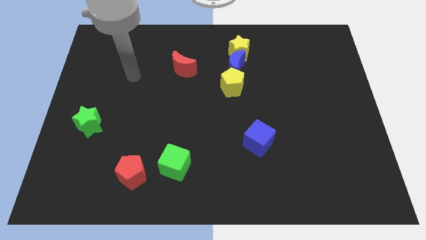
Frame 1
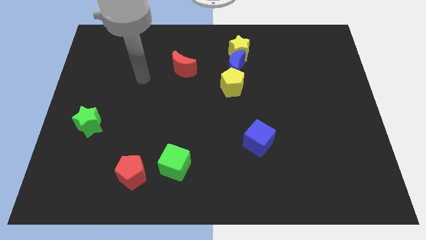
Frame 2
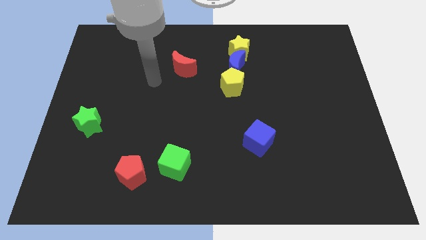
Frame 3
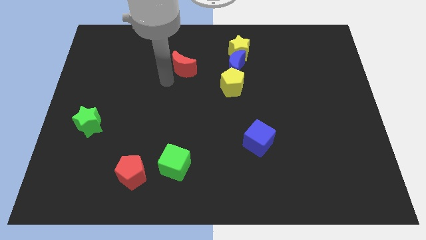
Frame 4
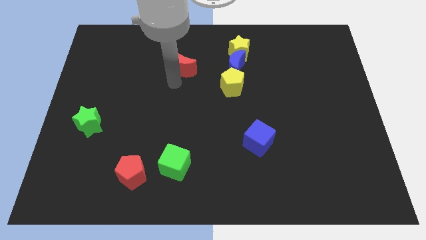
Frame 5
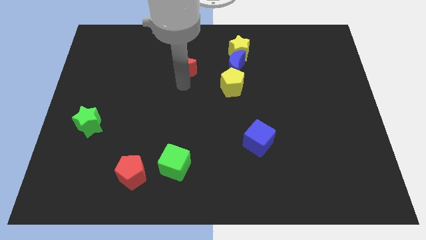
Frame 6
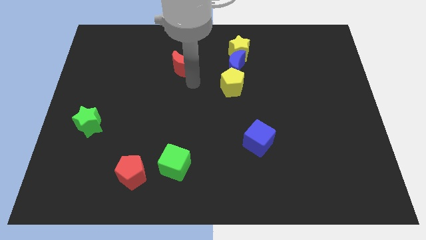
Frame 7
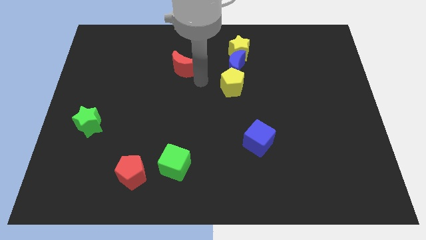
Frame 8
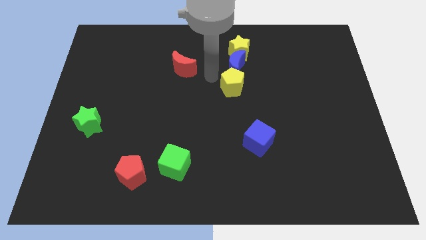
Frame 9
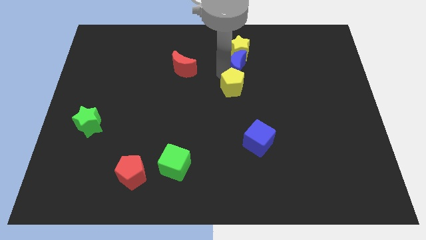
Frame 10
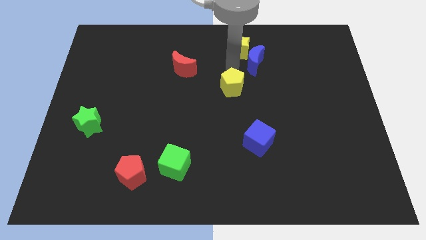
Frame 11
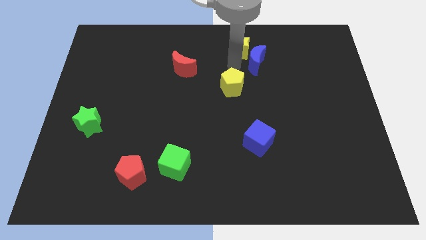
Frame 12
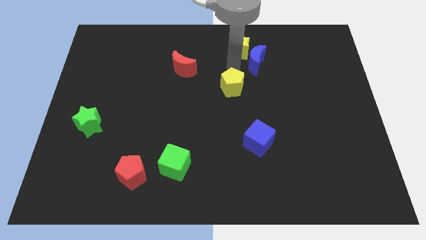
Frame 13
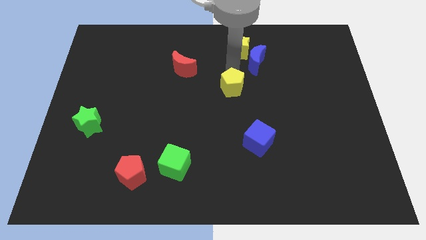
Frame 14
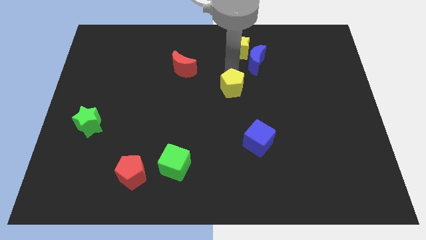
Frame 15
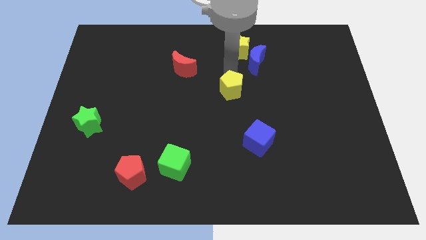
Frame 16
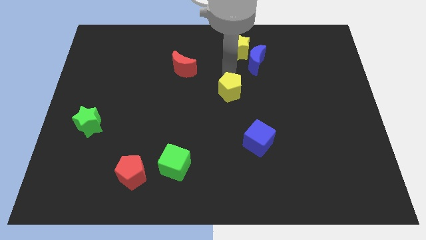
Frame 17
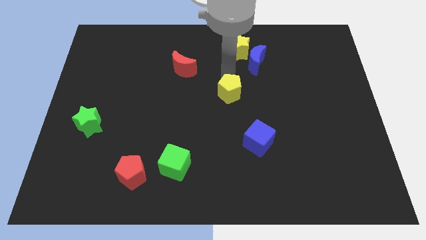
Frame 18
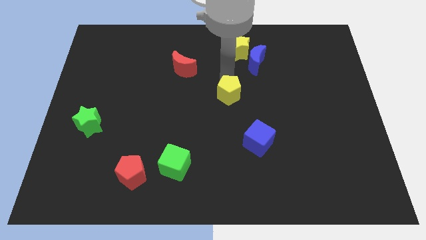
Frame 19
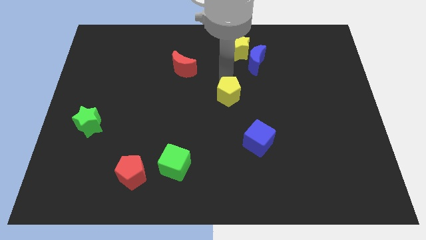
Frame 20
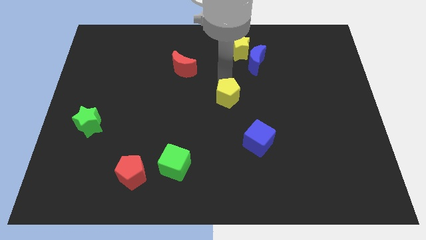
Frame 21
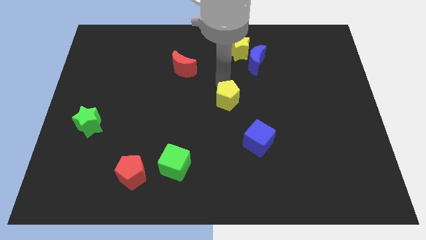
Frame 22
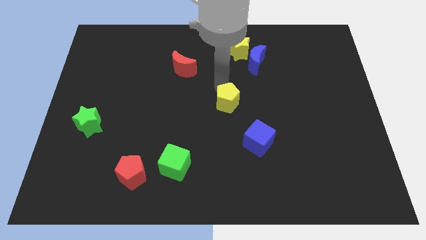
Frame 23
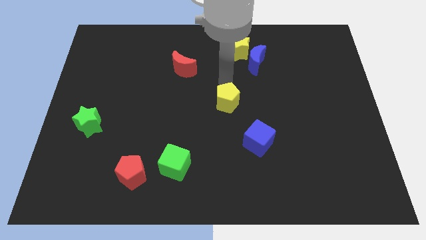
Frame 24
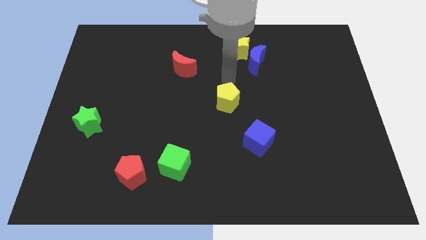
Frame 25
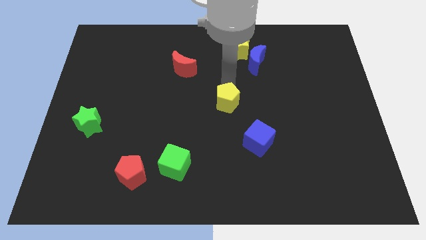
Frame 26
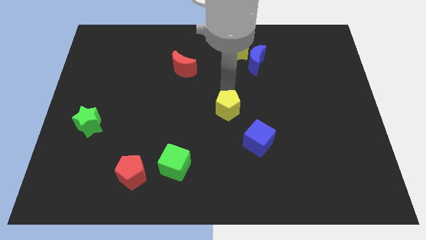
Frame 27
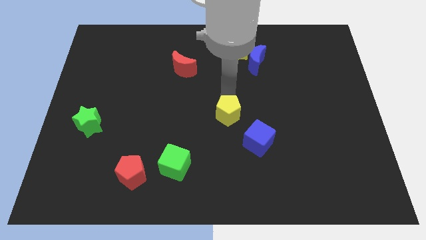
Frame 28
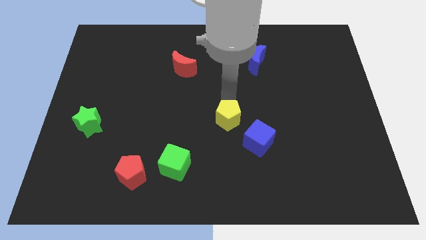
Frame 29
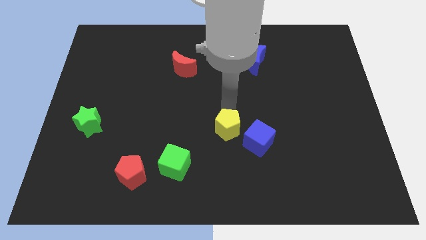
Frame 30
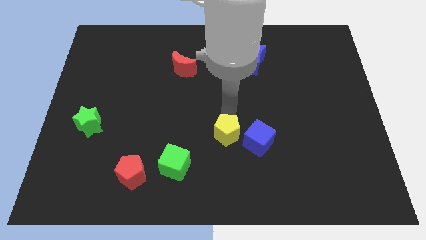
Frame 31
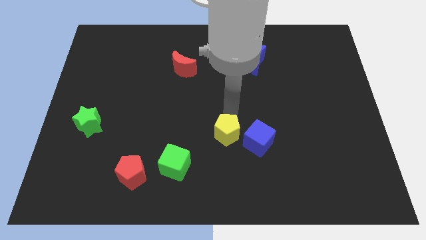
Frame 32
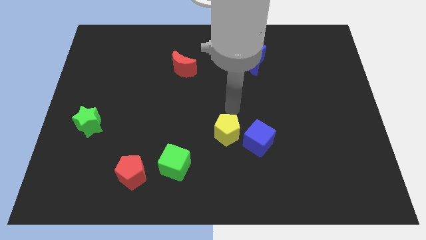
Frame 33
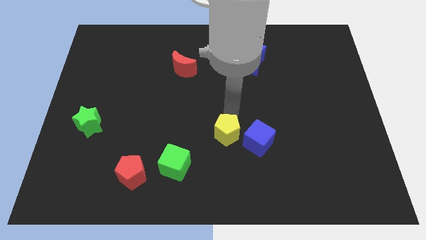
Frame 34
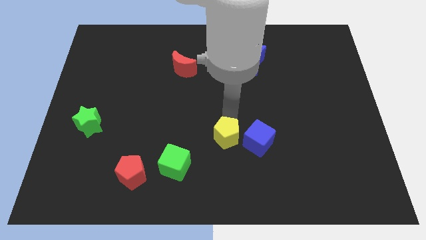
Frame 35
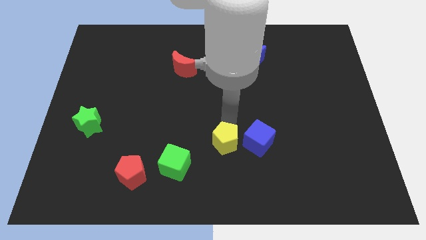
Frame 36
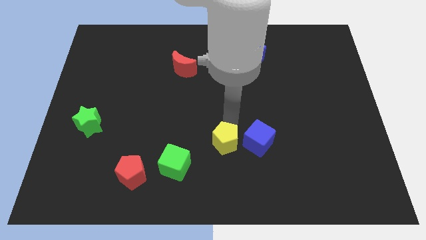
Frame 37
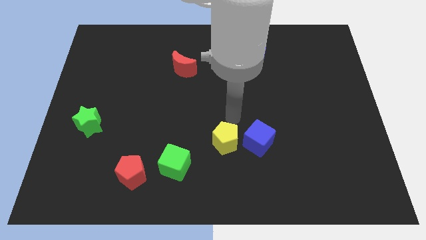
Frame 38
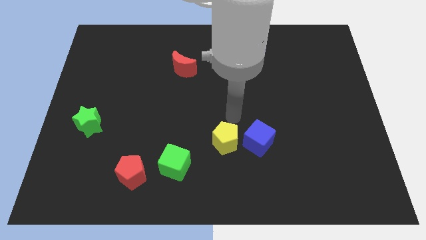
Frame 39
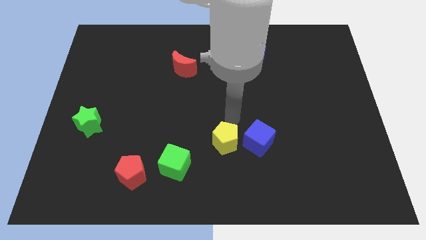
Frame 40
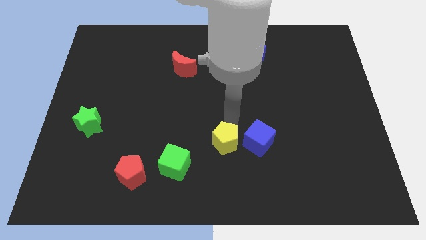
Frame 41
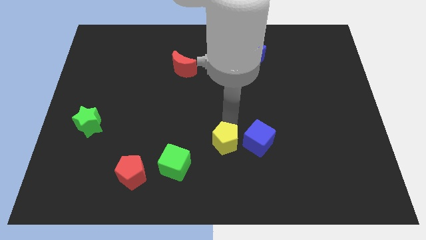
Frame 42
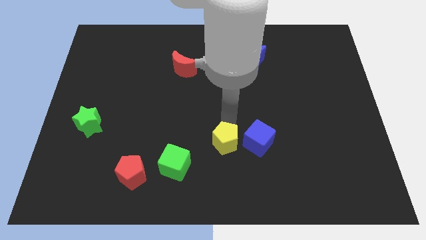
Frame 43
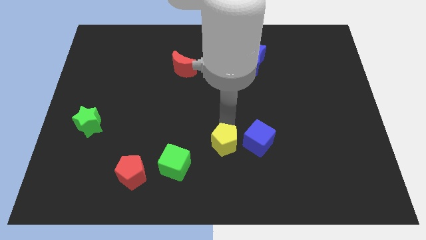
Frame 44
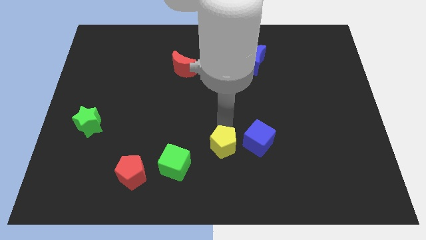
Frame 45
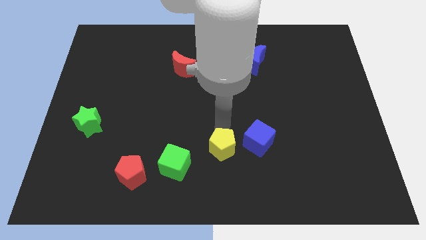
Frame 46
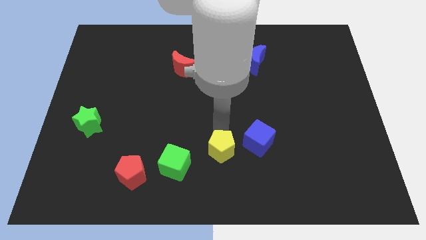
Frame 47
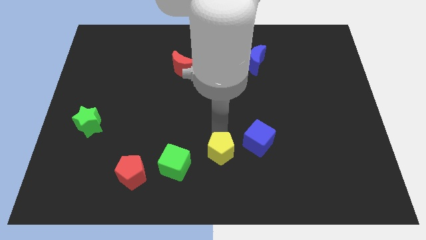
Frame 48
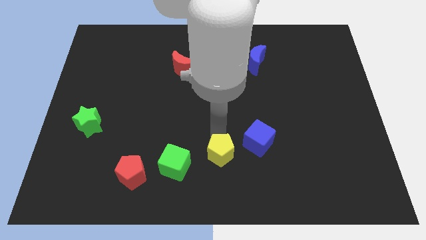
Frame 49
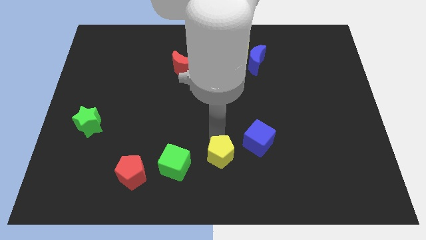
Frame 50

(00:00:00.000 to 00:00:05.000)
push the yellow pentagon to the bottom side
